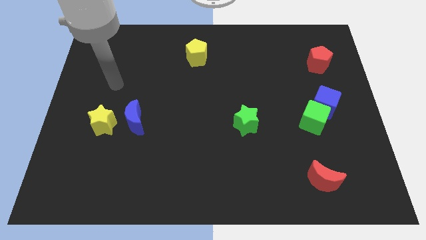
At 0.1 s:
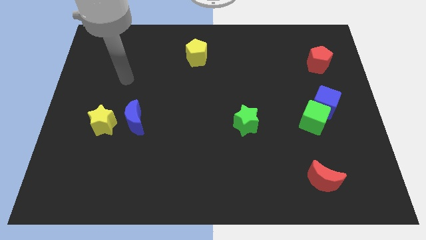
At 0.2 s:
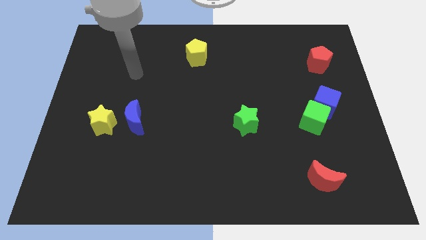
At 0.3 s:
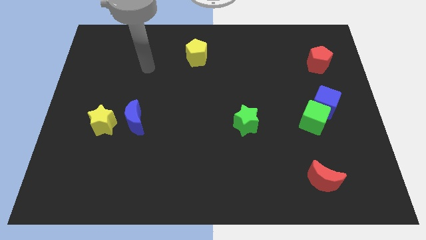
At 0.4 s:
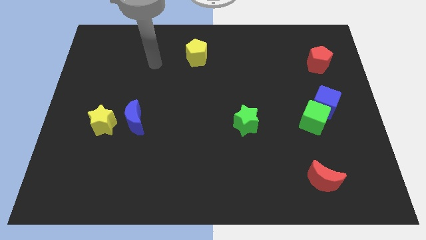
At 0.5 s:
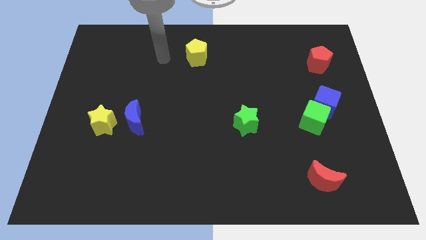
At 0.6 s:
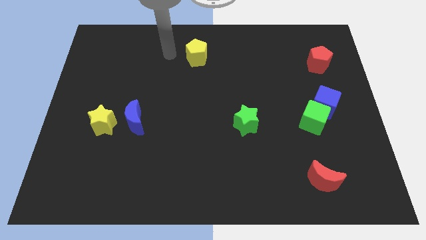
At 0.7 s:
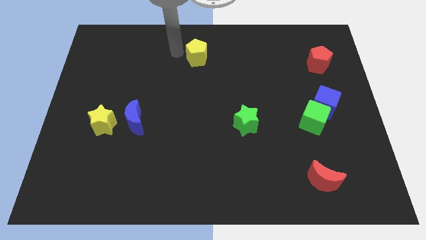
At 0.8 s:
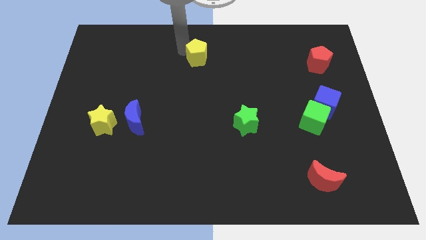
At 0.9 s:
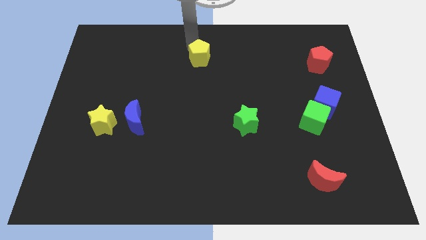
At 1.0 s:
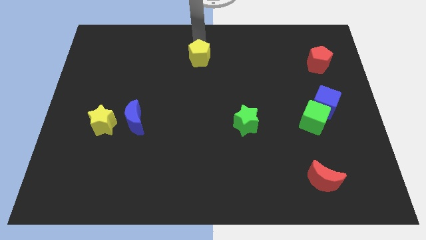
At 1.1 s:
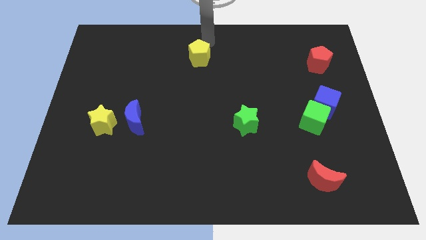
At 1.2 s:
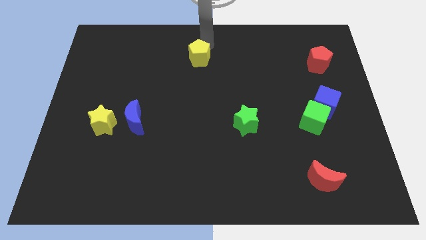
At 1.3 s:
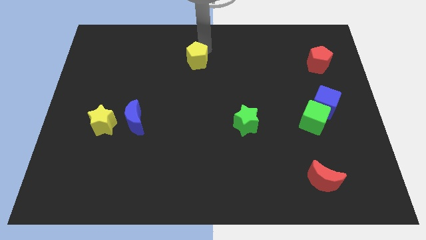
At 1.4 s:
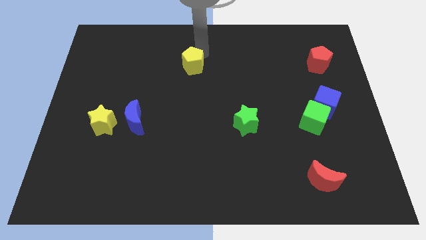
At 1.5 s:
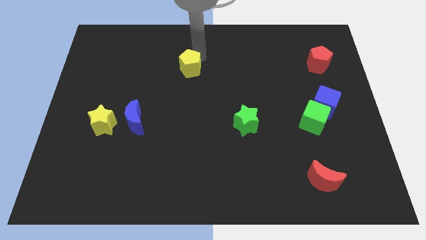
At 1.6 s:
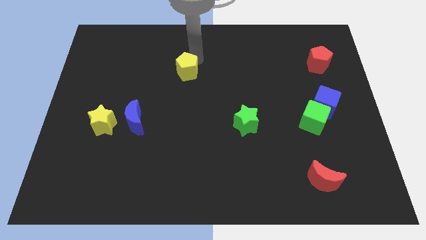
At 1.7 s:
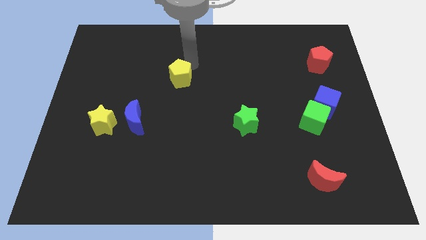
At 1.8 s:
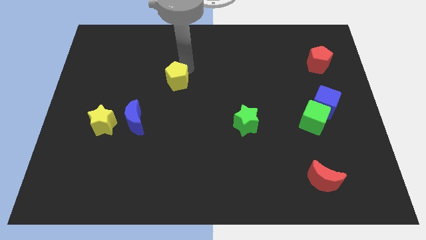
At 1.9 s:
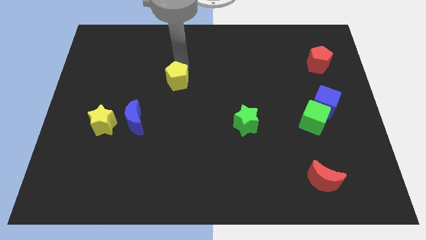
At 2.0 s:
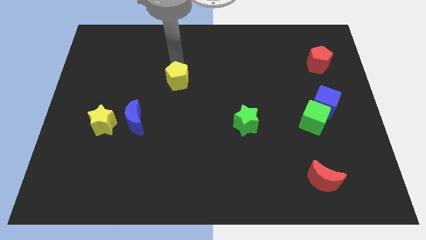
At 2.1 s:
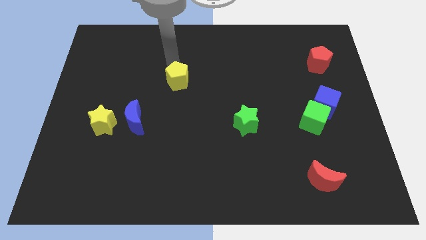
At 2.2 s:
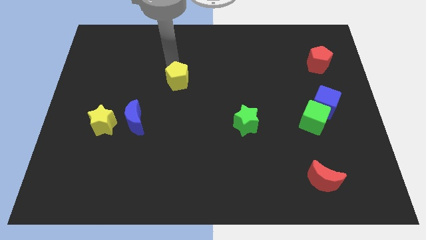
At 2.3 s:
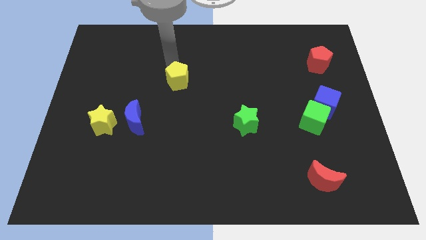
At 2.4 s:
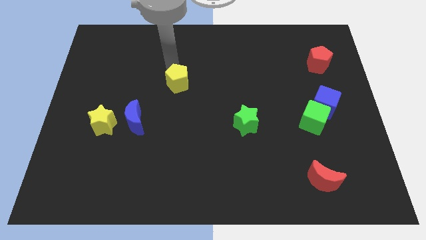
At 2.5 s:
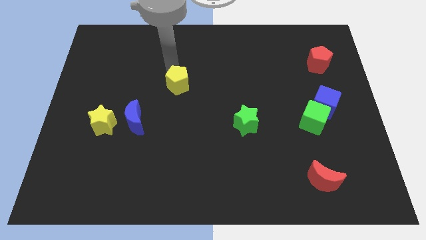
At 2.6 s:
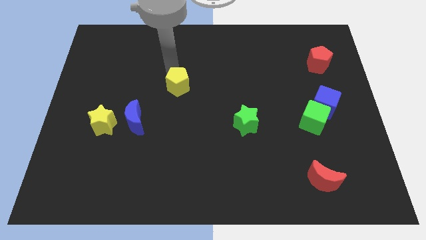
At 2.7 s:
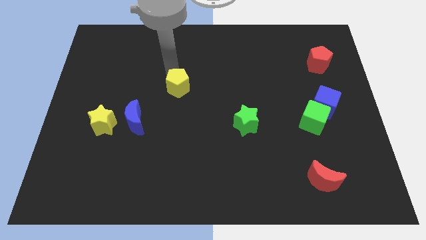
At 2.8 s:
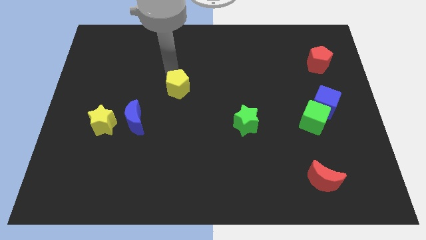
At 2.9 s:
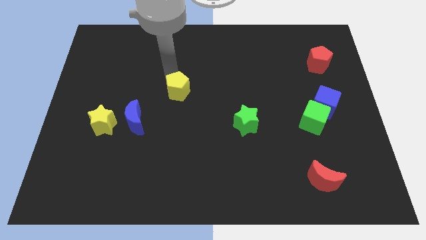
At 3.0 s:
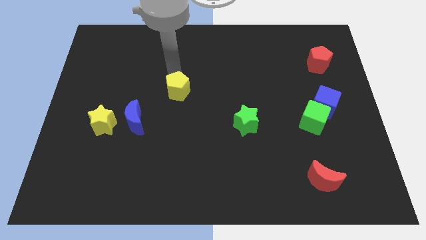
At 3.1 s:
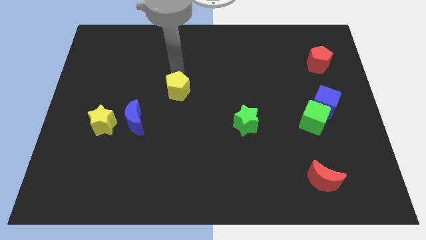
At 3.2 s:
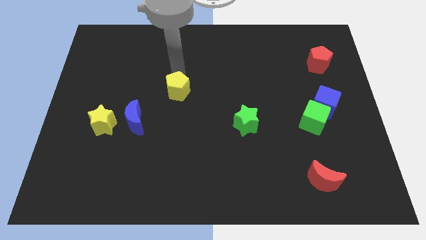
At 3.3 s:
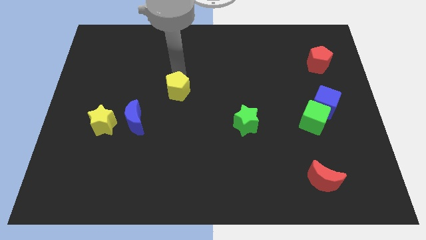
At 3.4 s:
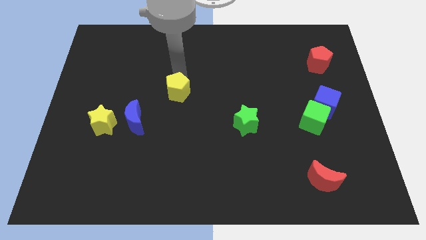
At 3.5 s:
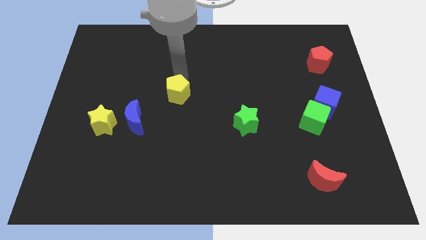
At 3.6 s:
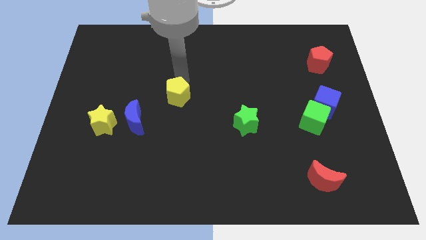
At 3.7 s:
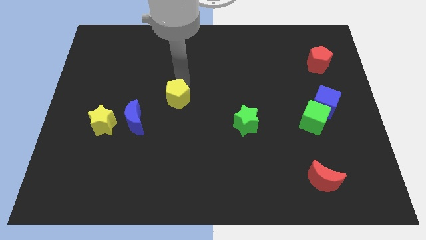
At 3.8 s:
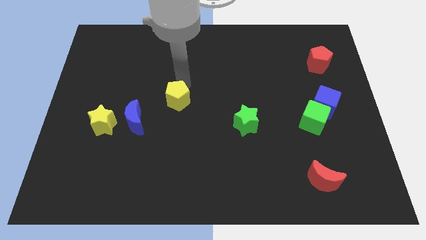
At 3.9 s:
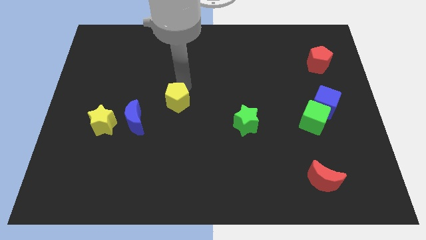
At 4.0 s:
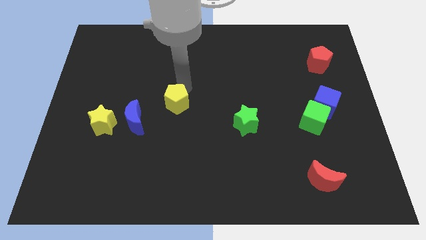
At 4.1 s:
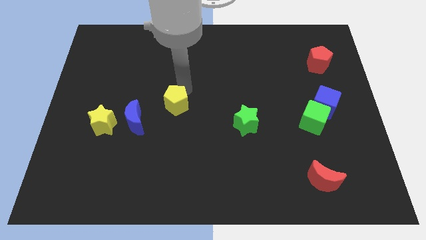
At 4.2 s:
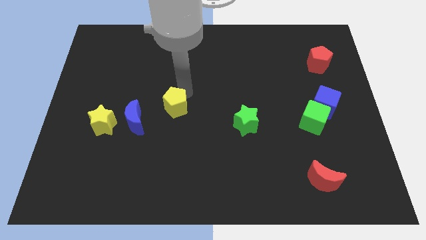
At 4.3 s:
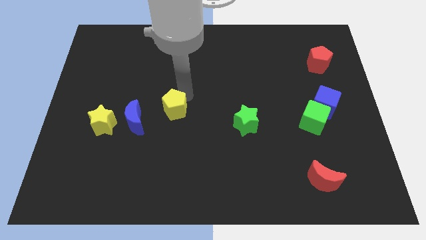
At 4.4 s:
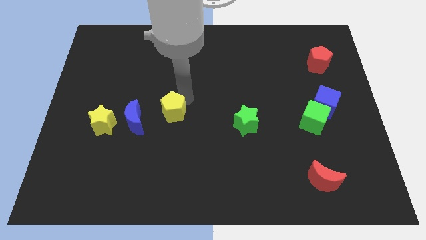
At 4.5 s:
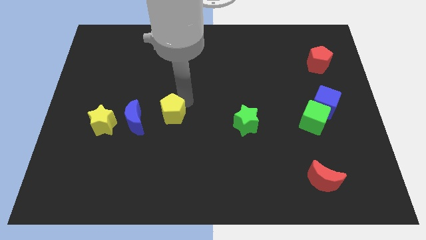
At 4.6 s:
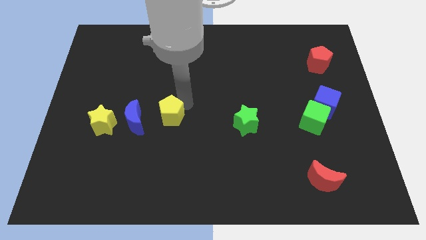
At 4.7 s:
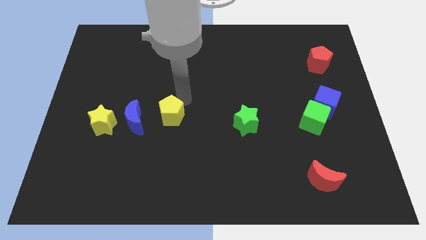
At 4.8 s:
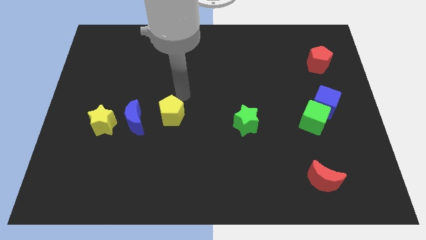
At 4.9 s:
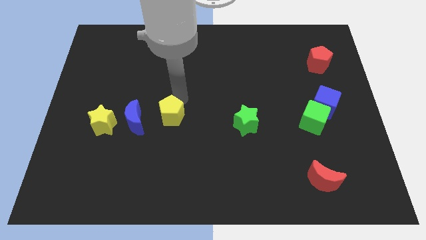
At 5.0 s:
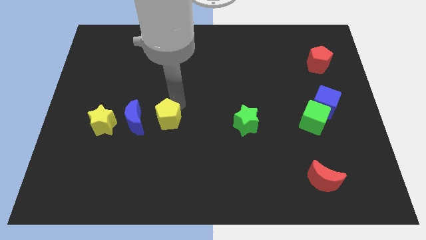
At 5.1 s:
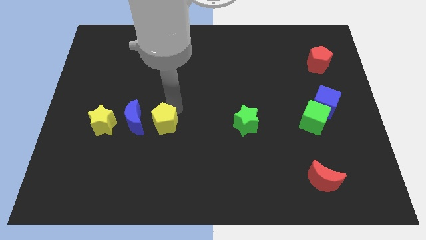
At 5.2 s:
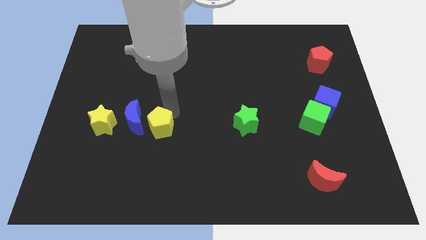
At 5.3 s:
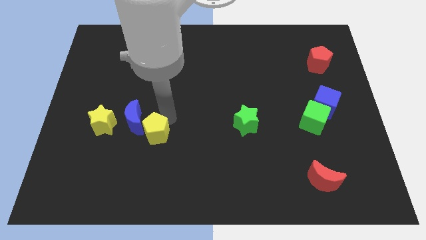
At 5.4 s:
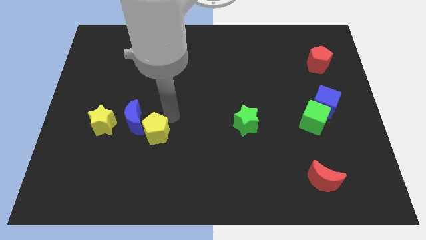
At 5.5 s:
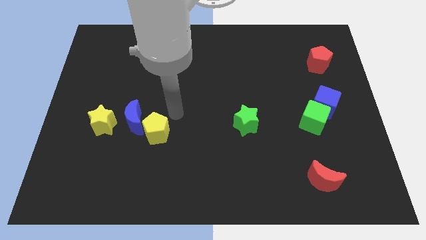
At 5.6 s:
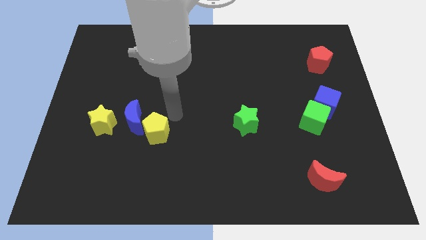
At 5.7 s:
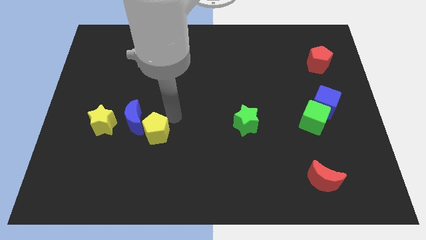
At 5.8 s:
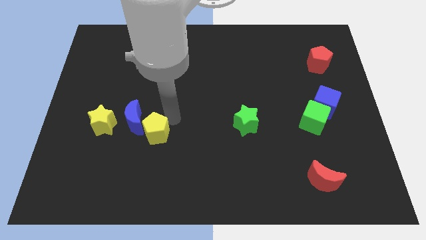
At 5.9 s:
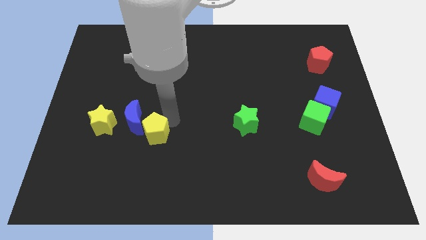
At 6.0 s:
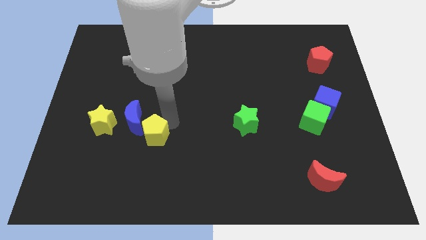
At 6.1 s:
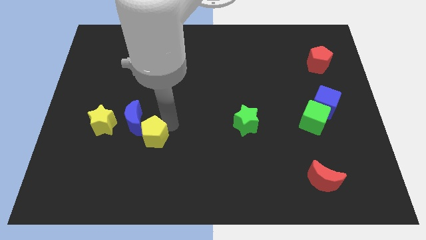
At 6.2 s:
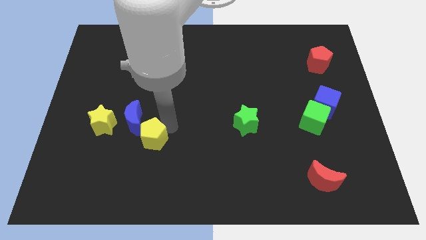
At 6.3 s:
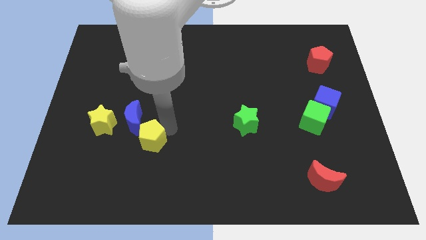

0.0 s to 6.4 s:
push the yellow pentagon to the bottom side of the blue moon
